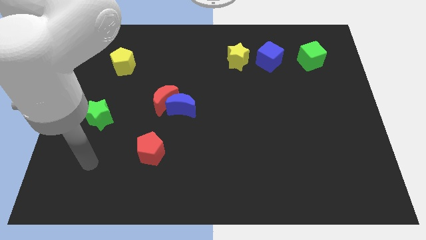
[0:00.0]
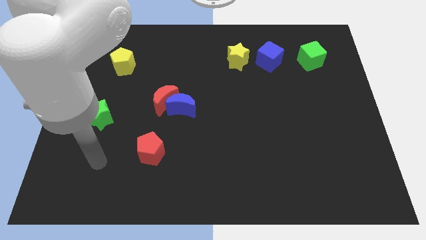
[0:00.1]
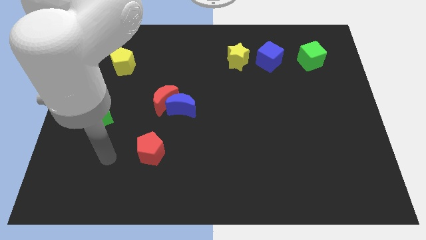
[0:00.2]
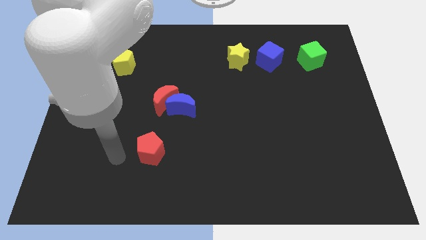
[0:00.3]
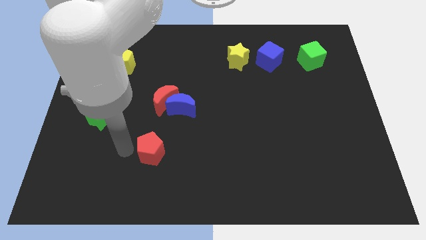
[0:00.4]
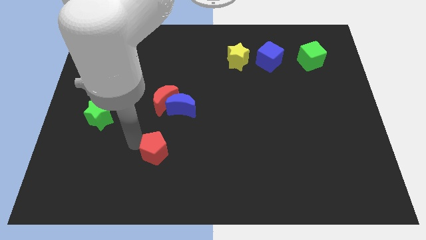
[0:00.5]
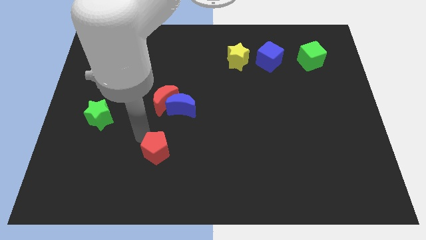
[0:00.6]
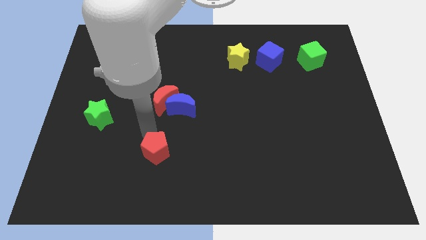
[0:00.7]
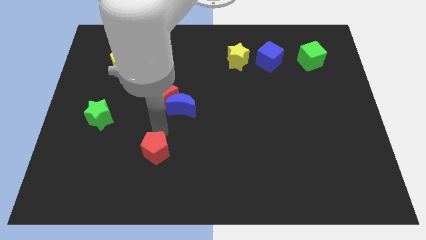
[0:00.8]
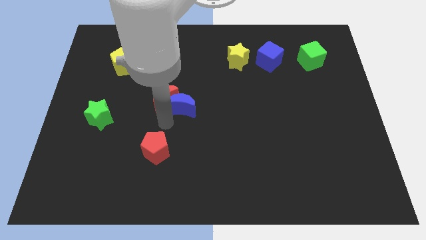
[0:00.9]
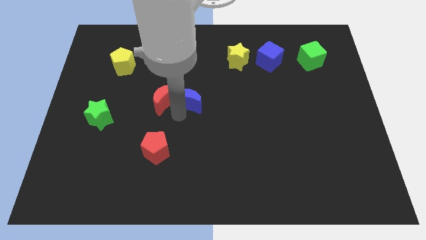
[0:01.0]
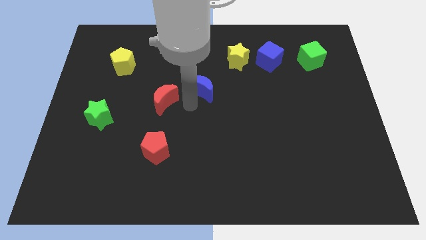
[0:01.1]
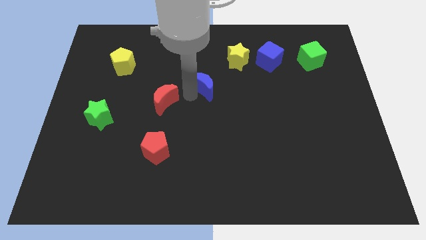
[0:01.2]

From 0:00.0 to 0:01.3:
pull the red moon apart from the blue moon

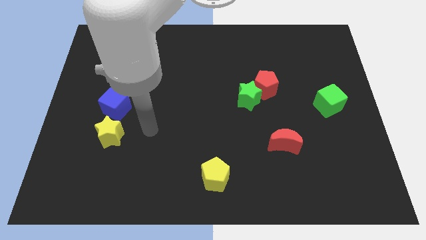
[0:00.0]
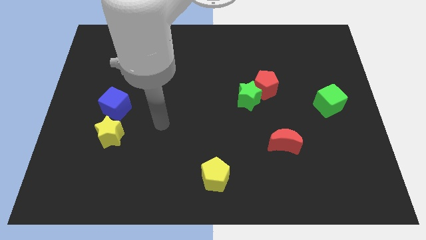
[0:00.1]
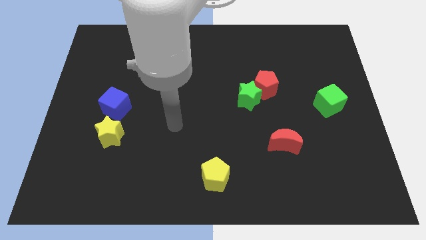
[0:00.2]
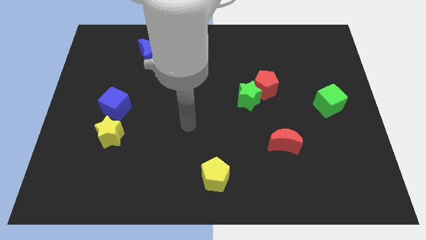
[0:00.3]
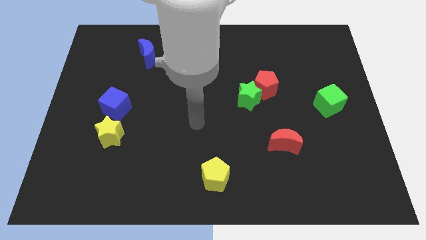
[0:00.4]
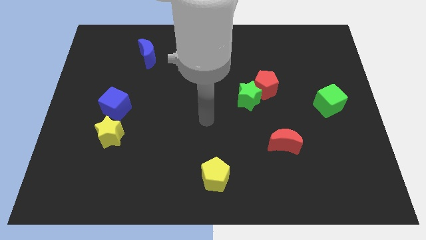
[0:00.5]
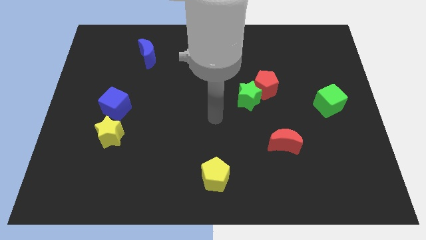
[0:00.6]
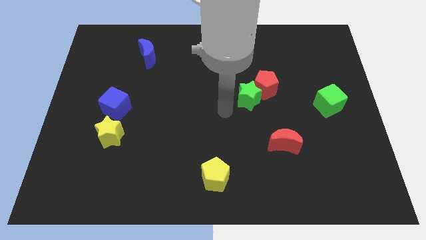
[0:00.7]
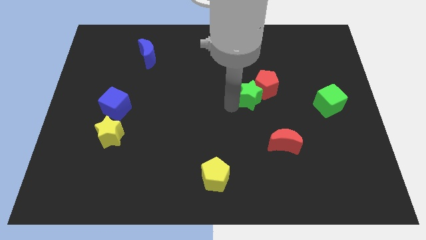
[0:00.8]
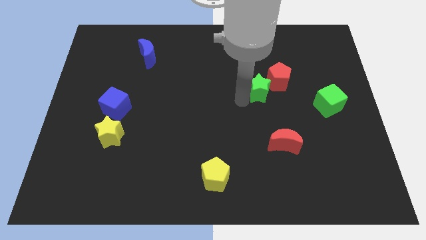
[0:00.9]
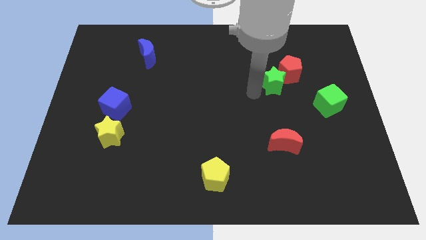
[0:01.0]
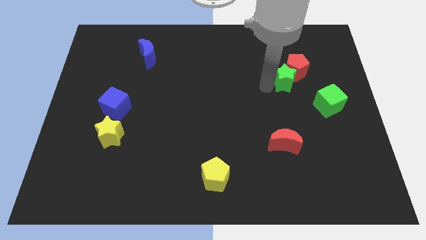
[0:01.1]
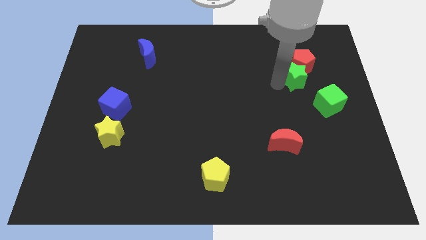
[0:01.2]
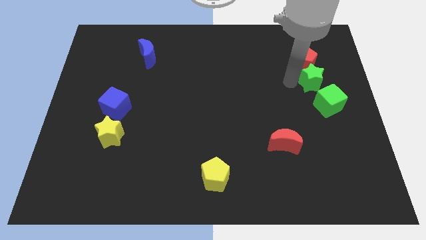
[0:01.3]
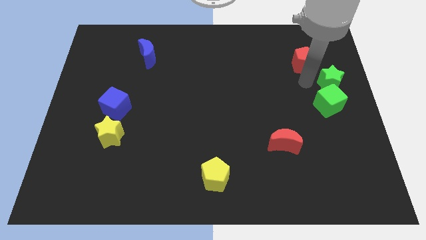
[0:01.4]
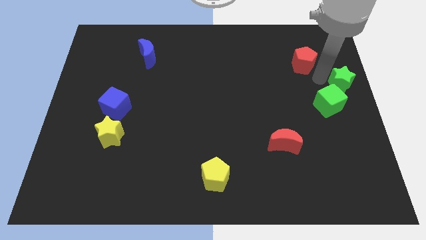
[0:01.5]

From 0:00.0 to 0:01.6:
separate the red pentagon from the green star

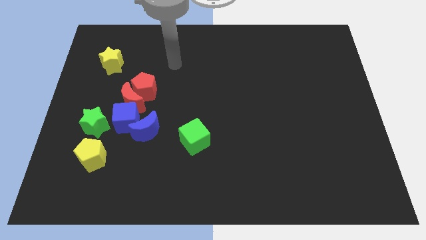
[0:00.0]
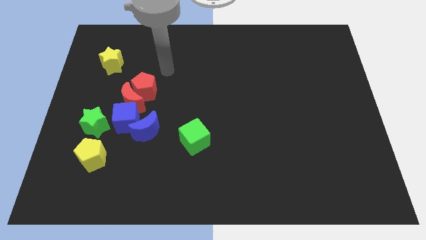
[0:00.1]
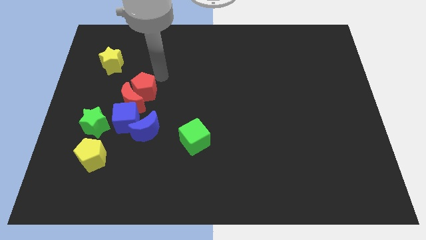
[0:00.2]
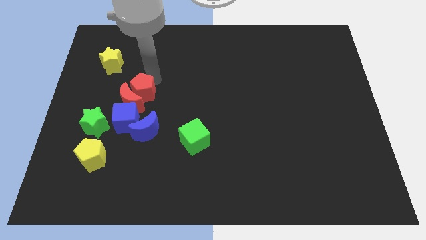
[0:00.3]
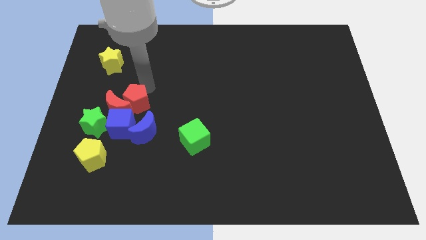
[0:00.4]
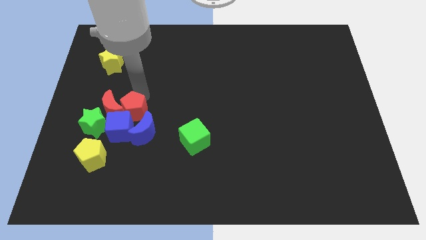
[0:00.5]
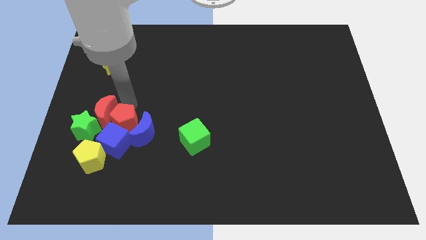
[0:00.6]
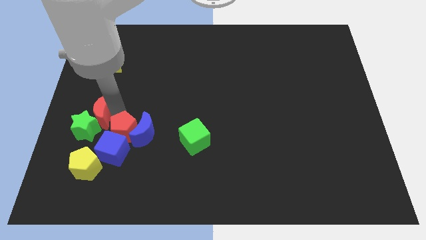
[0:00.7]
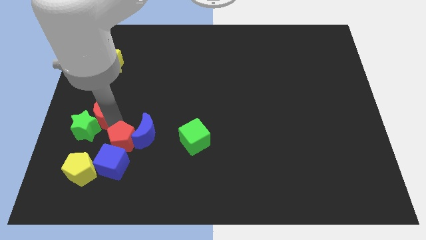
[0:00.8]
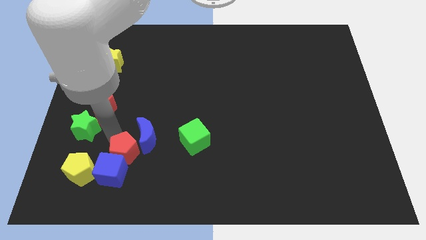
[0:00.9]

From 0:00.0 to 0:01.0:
pull the blue cube apart from the clump

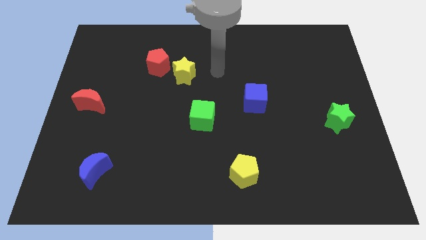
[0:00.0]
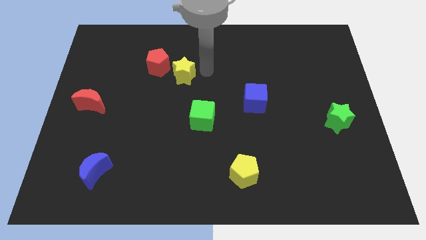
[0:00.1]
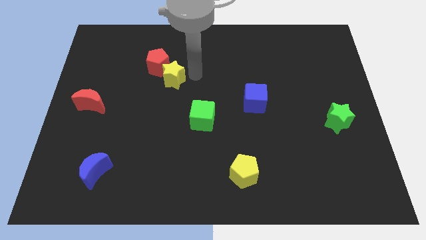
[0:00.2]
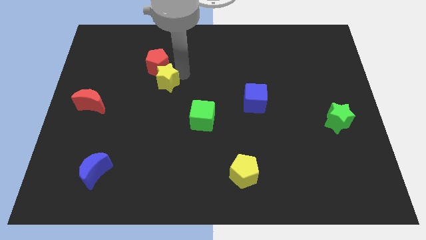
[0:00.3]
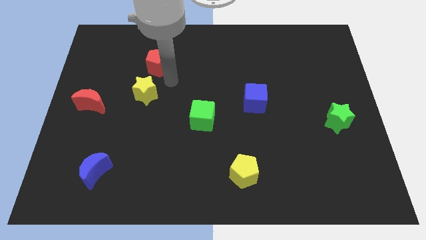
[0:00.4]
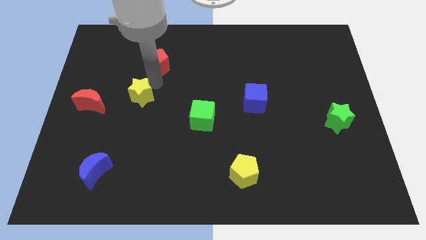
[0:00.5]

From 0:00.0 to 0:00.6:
separate the red pentagon from the yellow star

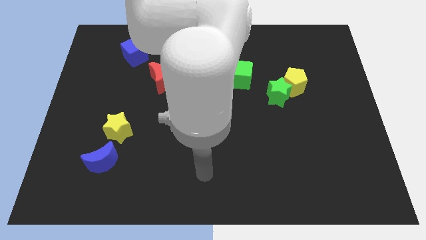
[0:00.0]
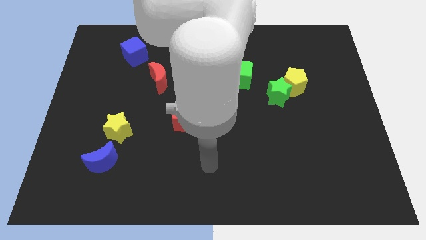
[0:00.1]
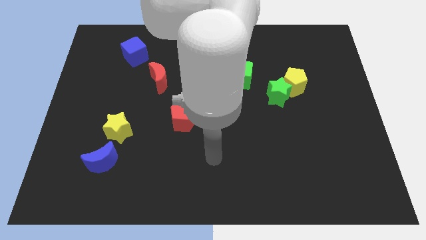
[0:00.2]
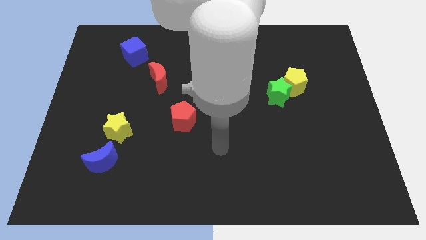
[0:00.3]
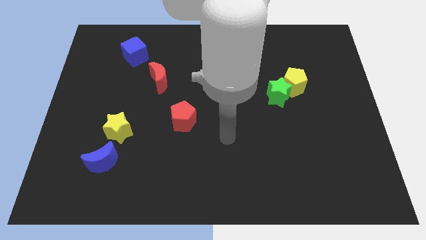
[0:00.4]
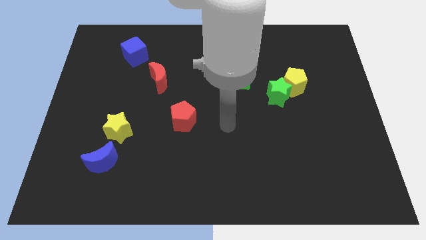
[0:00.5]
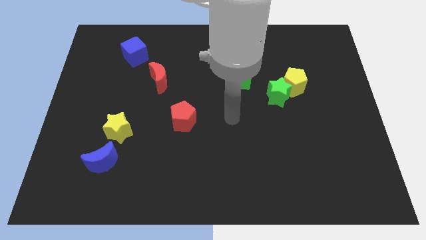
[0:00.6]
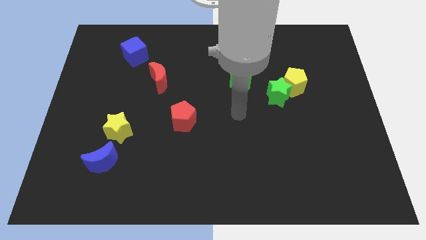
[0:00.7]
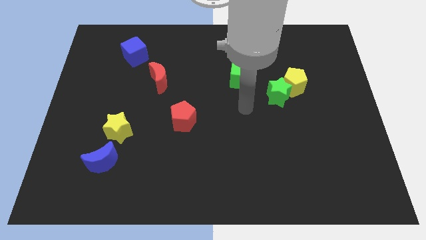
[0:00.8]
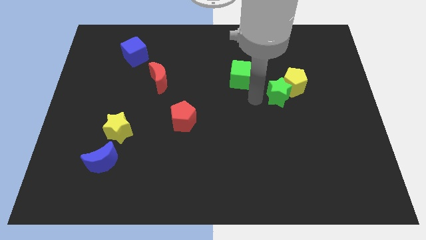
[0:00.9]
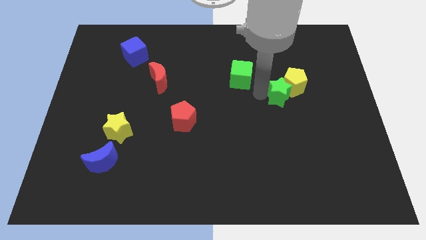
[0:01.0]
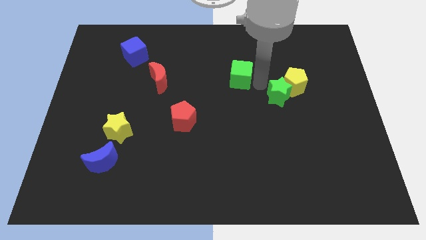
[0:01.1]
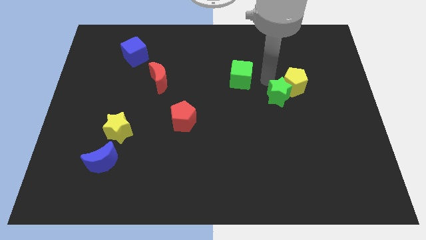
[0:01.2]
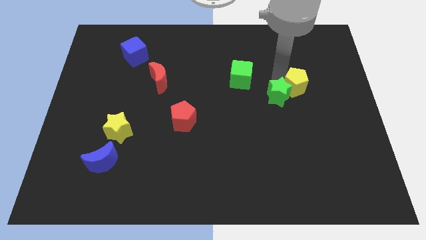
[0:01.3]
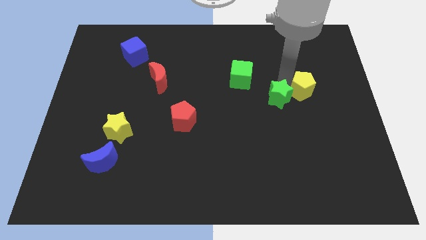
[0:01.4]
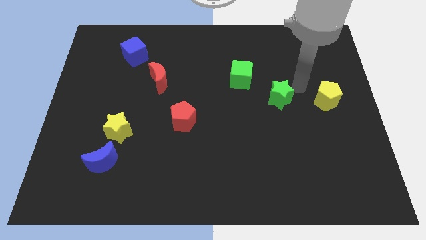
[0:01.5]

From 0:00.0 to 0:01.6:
move the green star away from the yellow pentagon

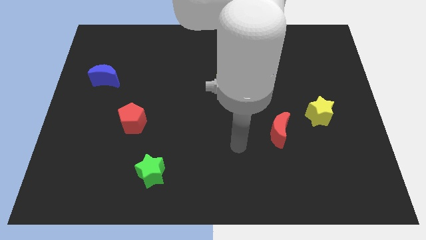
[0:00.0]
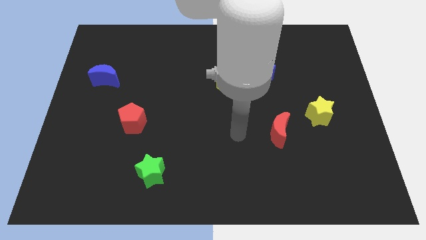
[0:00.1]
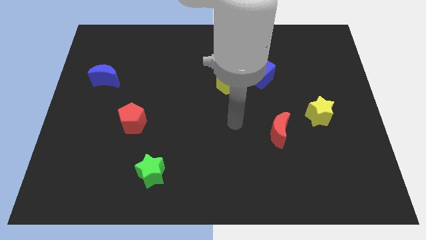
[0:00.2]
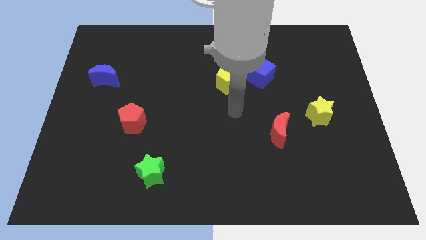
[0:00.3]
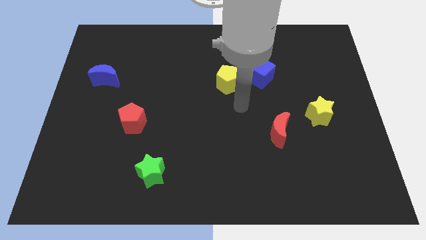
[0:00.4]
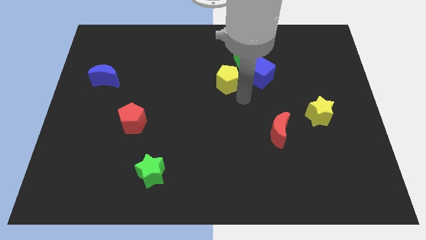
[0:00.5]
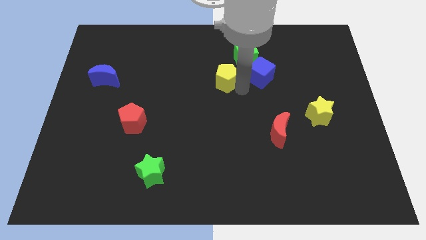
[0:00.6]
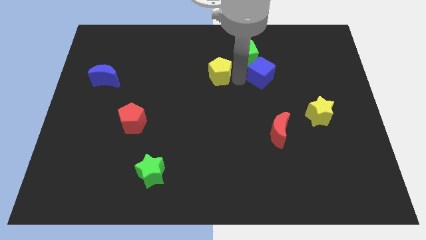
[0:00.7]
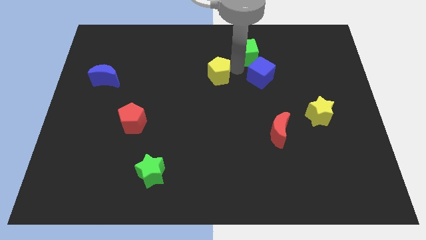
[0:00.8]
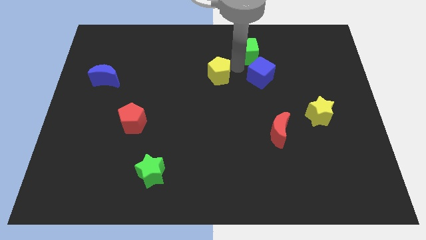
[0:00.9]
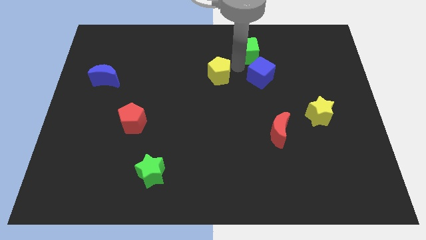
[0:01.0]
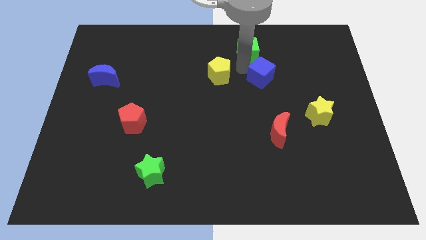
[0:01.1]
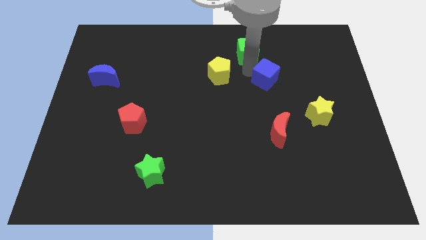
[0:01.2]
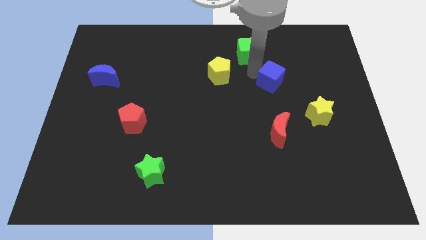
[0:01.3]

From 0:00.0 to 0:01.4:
pull the blue cube apart from the green cube and yellow pentagon

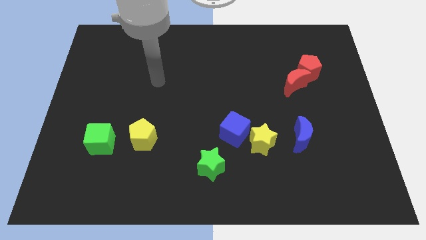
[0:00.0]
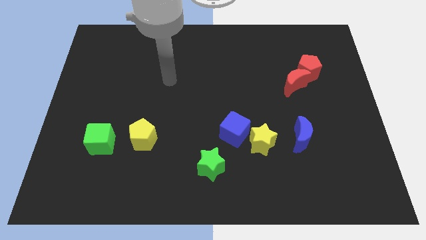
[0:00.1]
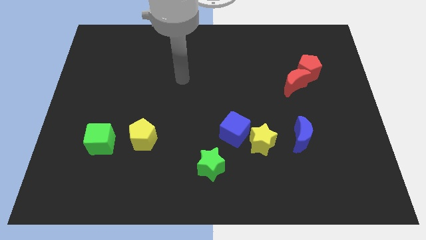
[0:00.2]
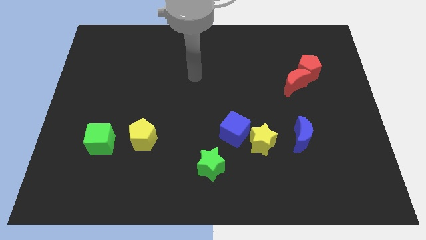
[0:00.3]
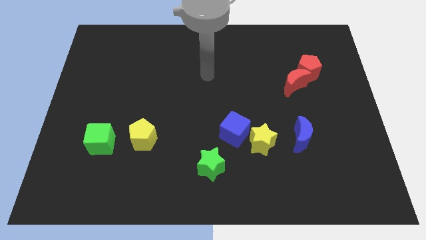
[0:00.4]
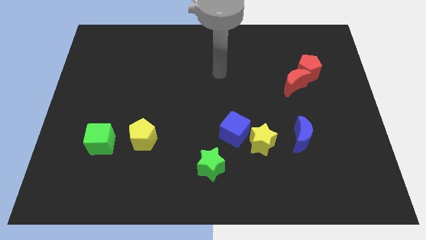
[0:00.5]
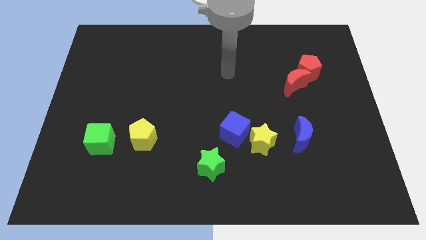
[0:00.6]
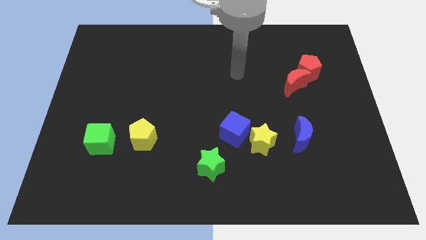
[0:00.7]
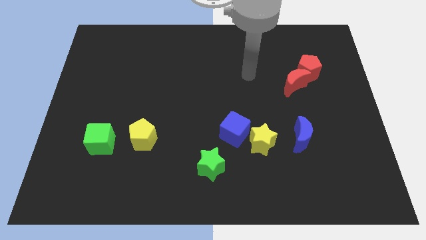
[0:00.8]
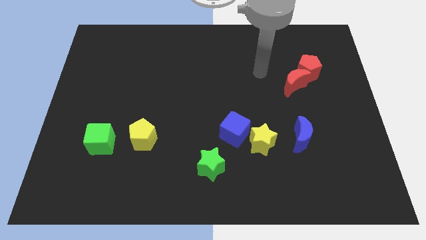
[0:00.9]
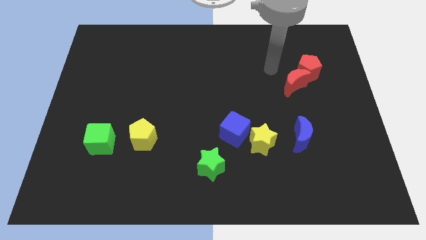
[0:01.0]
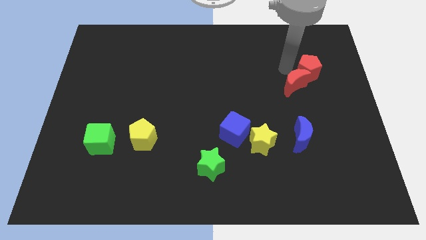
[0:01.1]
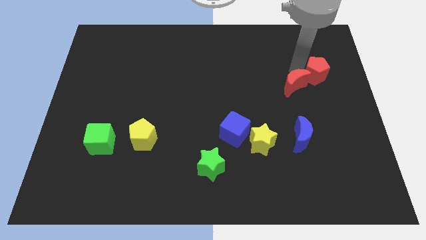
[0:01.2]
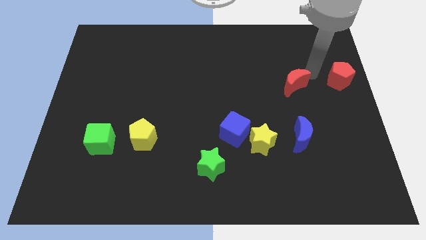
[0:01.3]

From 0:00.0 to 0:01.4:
move the red moon away from the red pentagon

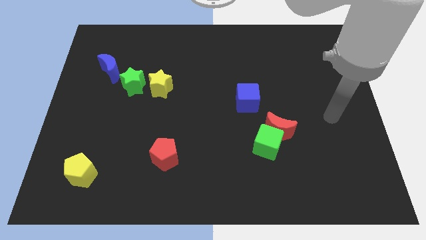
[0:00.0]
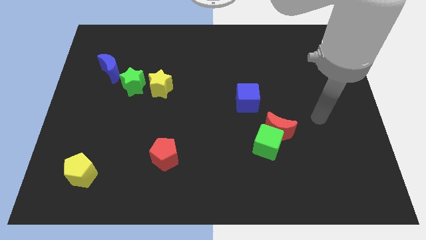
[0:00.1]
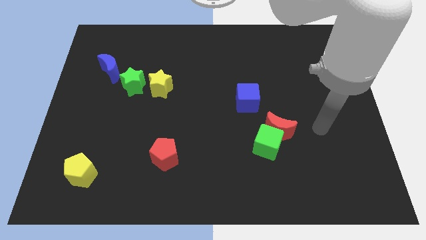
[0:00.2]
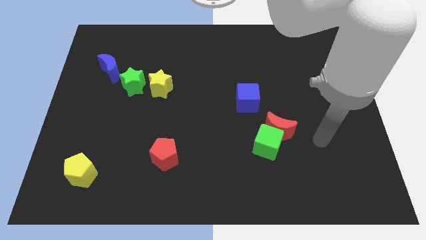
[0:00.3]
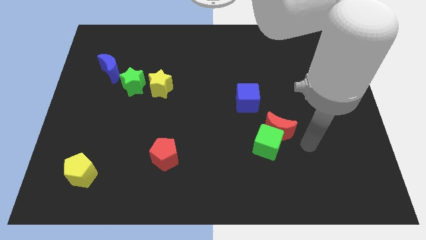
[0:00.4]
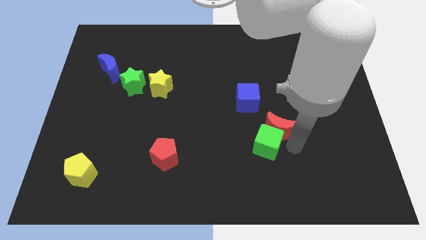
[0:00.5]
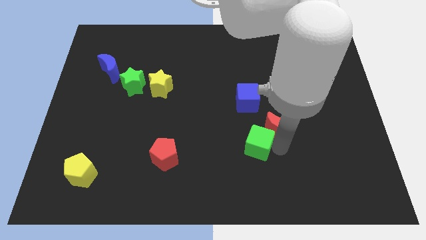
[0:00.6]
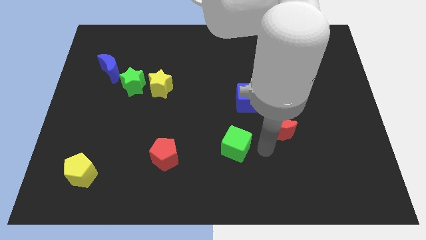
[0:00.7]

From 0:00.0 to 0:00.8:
pull the red moon apart from the green cube
